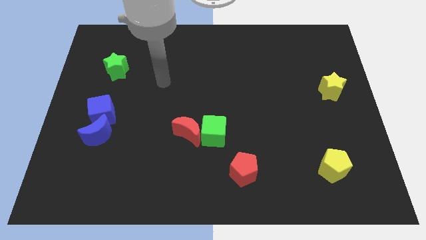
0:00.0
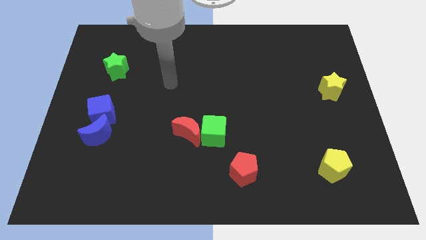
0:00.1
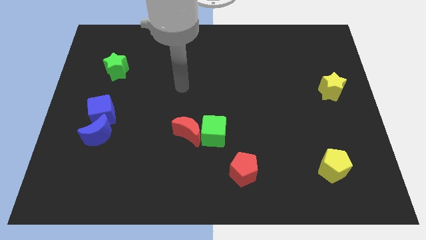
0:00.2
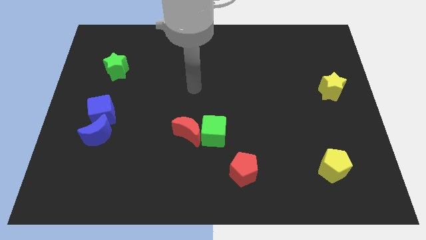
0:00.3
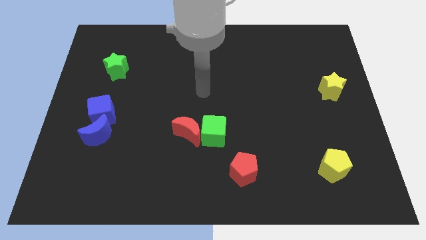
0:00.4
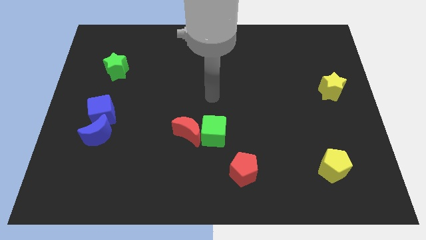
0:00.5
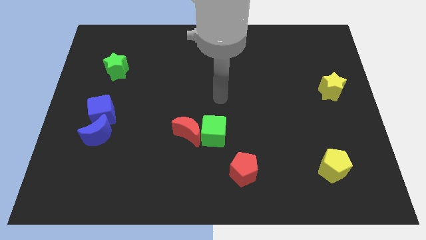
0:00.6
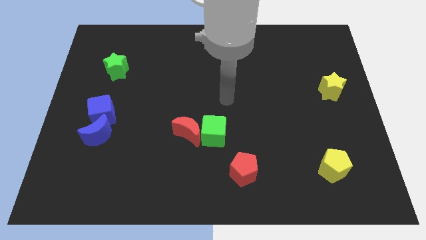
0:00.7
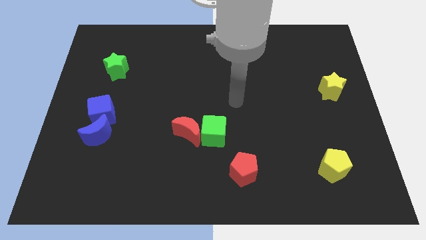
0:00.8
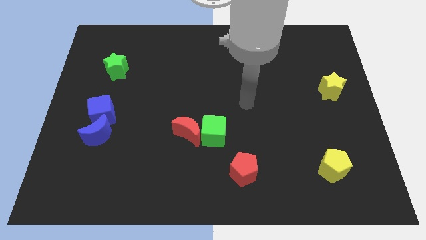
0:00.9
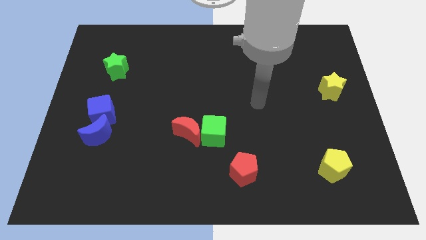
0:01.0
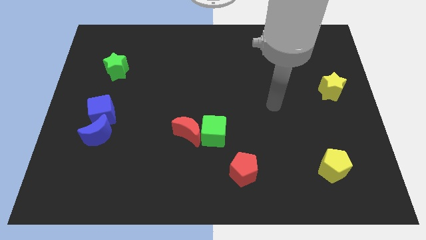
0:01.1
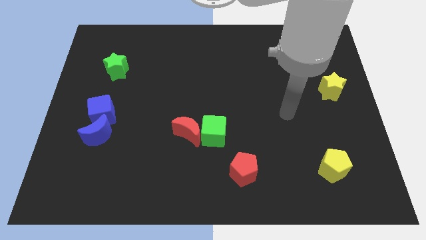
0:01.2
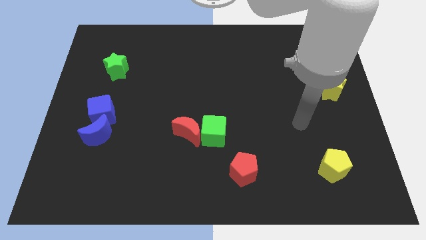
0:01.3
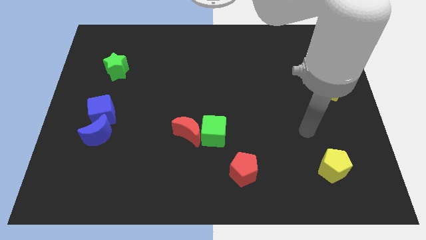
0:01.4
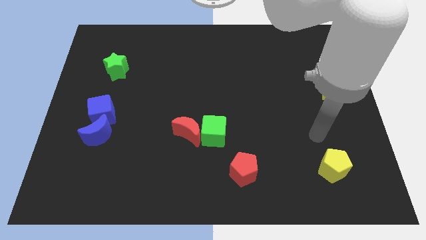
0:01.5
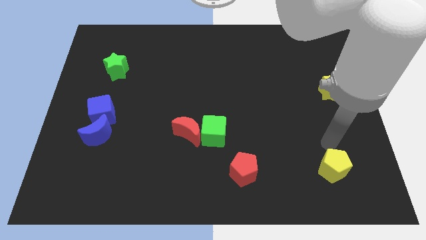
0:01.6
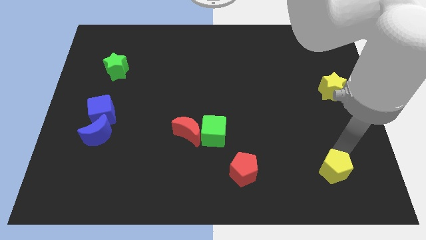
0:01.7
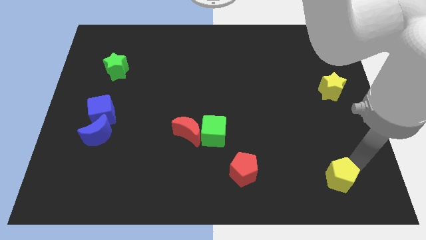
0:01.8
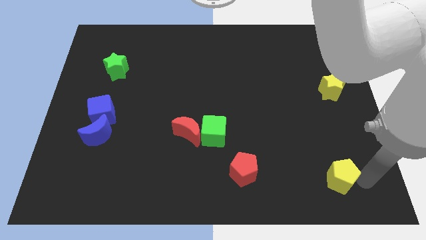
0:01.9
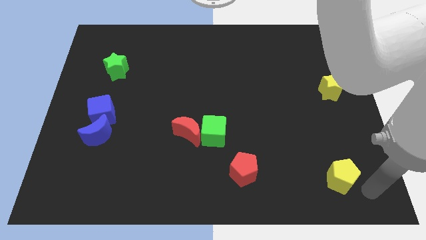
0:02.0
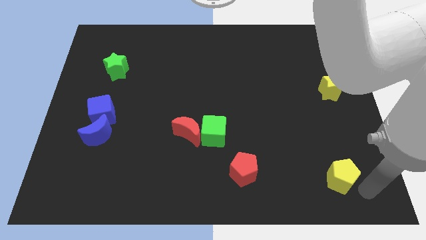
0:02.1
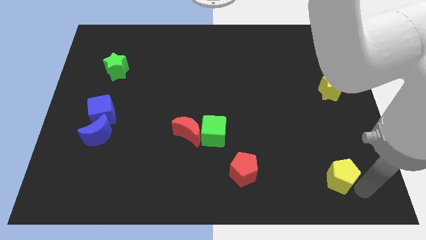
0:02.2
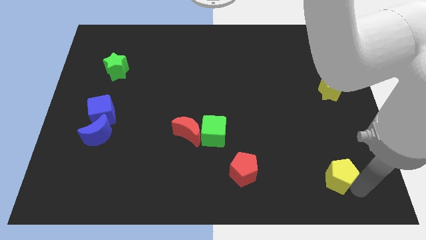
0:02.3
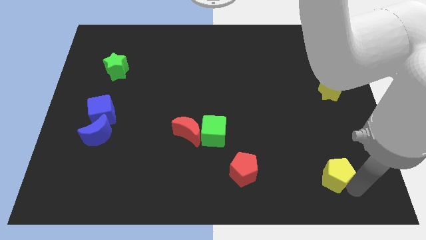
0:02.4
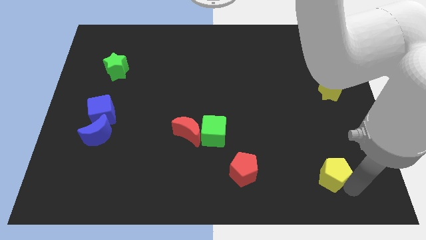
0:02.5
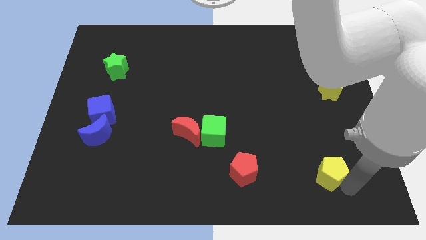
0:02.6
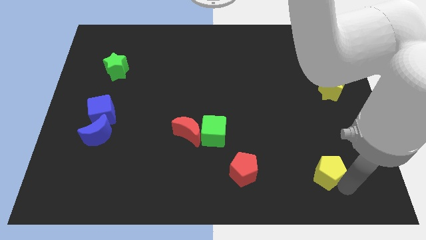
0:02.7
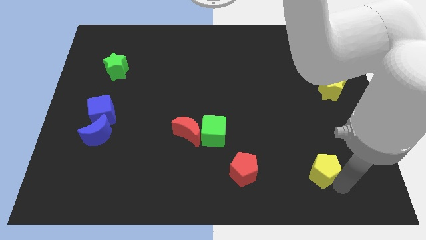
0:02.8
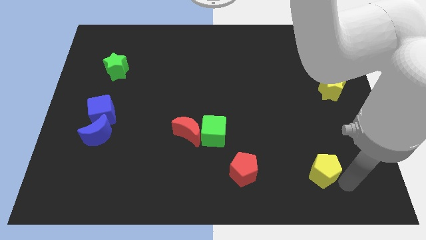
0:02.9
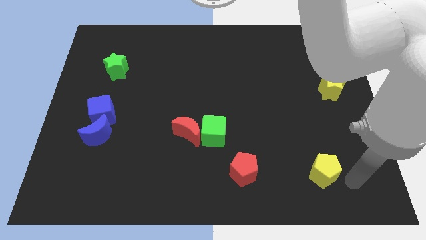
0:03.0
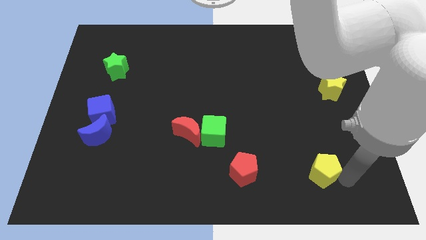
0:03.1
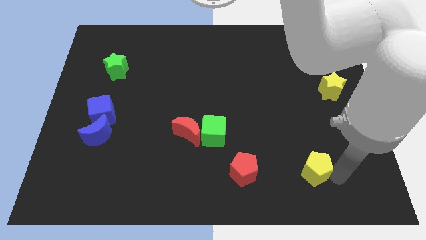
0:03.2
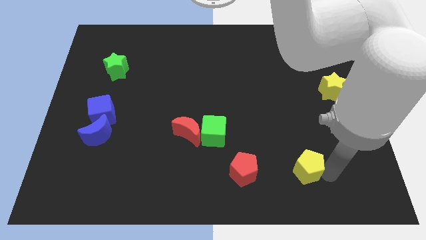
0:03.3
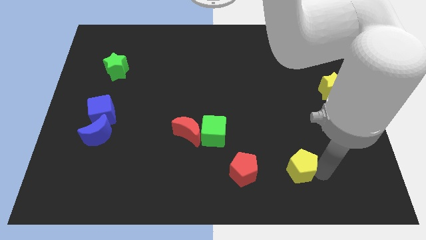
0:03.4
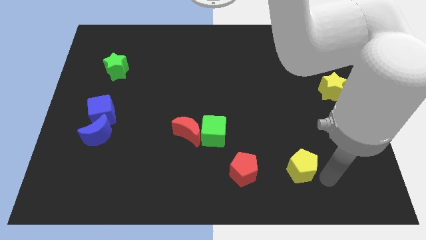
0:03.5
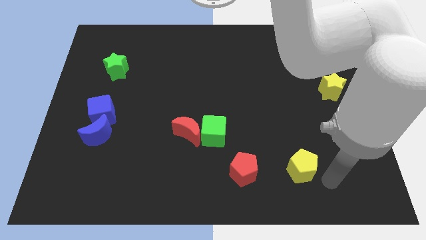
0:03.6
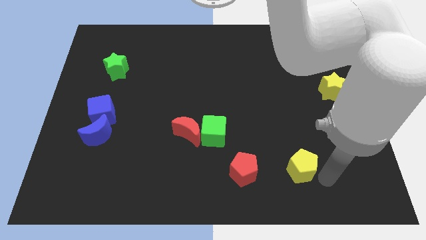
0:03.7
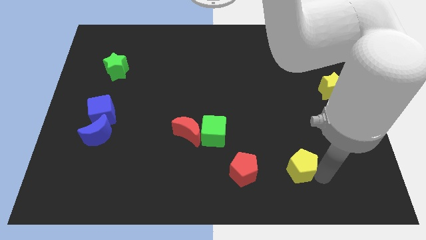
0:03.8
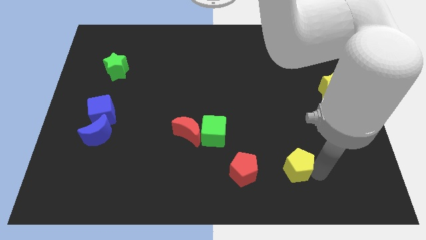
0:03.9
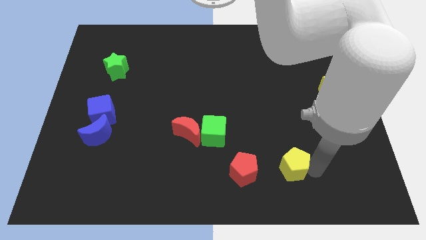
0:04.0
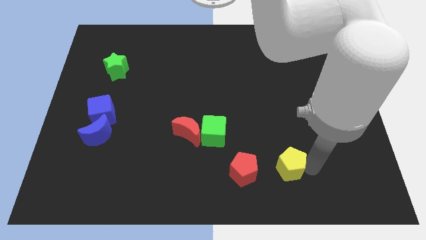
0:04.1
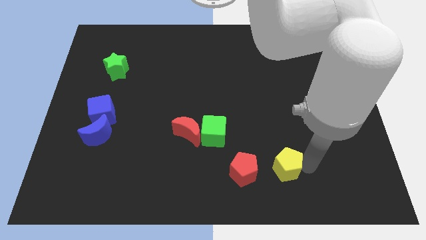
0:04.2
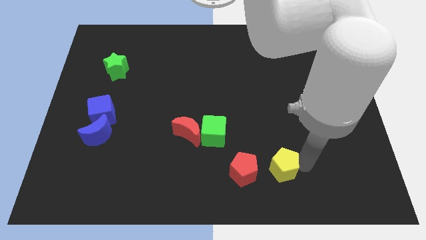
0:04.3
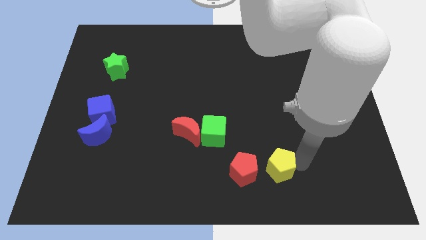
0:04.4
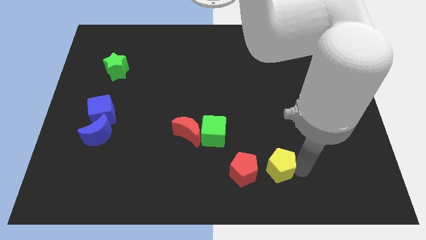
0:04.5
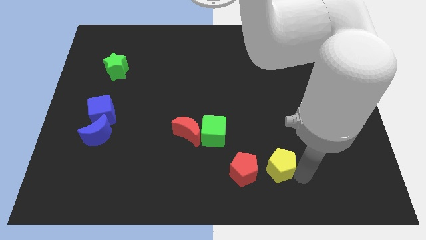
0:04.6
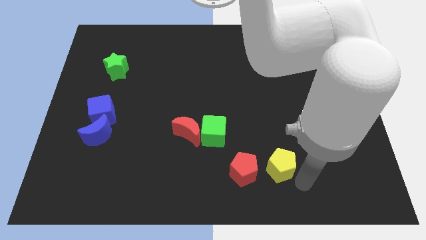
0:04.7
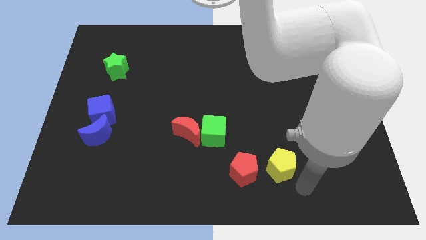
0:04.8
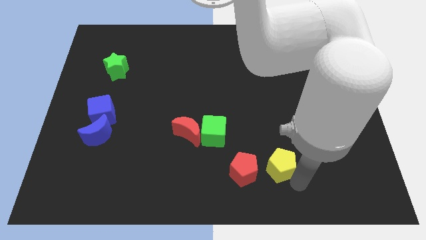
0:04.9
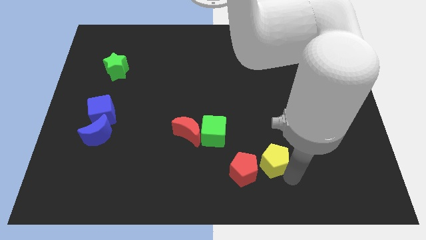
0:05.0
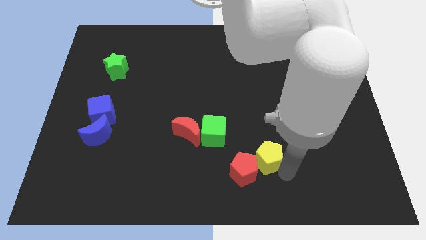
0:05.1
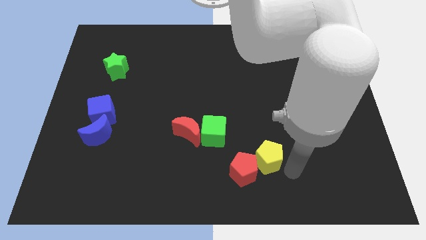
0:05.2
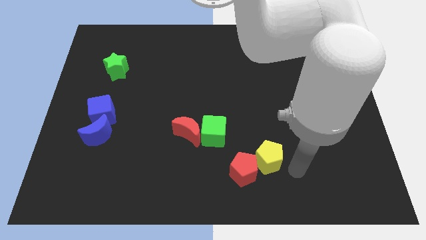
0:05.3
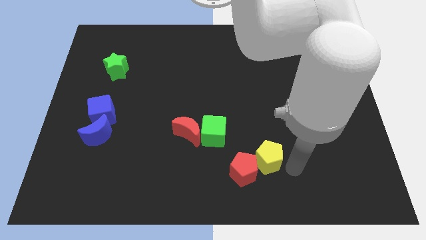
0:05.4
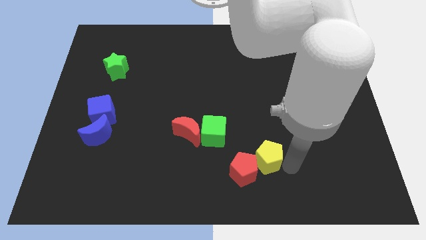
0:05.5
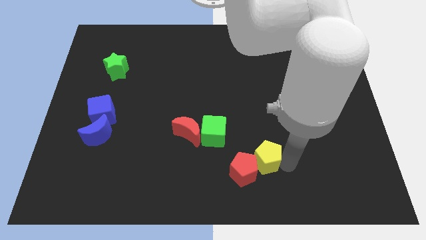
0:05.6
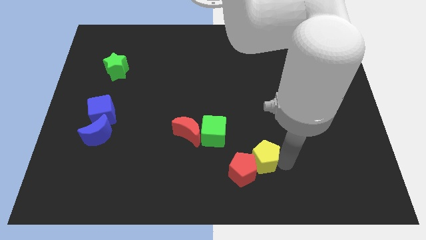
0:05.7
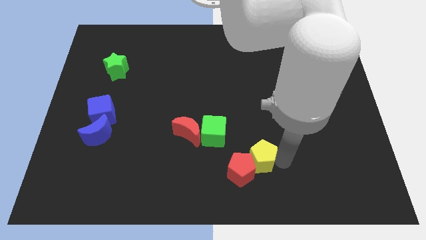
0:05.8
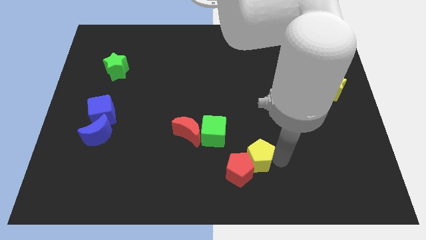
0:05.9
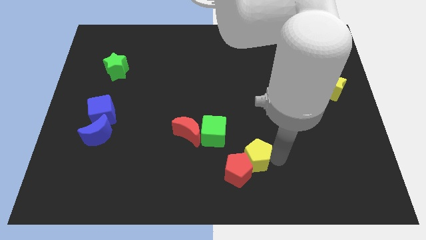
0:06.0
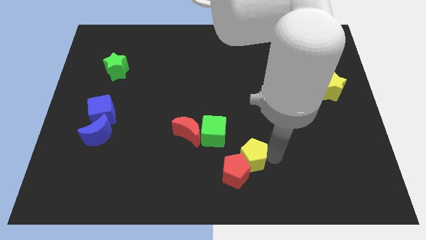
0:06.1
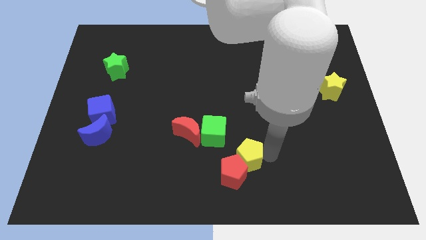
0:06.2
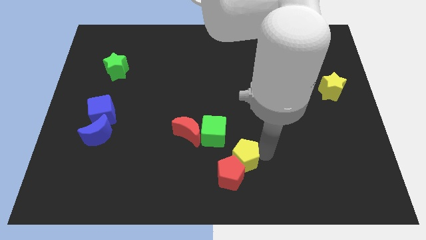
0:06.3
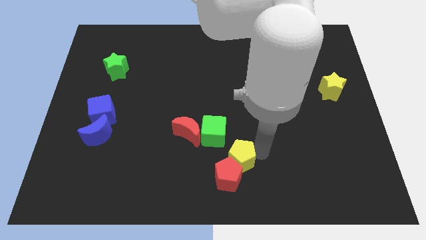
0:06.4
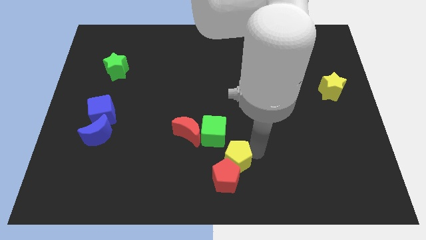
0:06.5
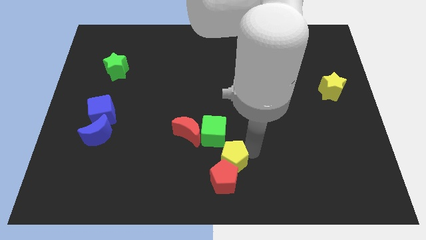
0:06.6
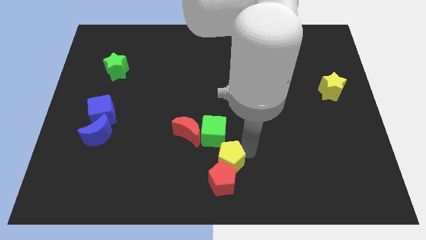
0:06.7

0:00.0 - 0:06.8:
push the yellow pentagon to the top left of the red pentagon

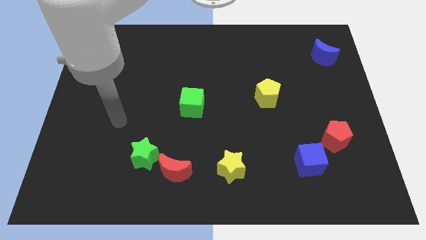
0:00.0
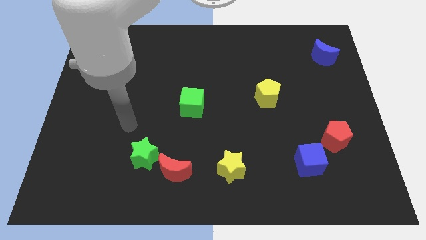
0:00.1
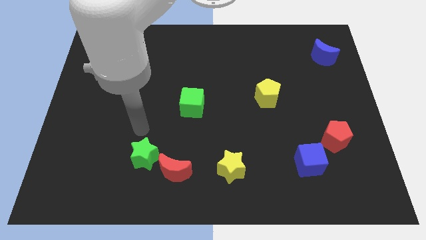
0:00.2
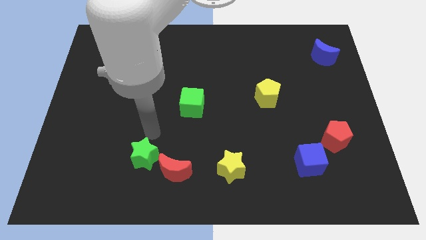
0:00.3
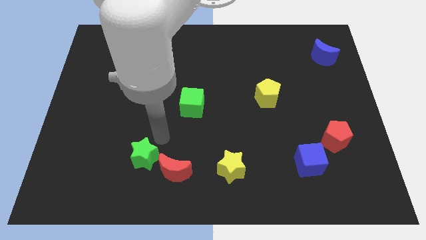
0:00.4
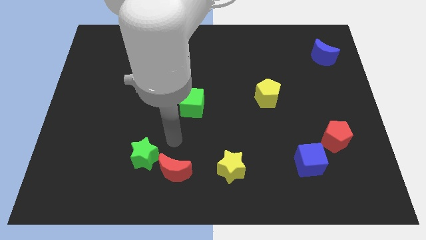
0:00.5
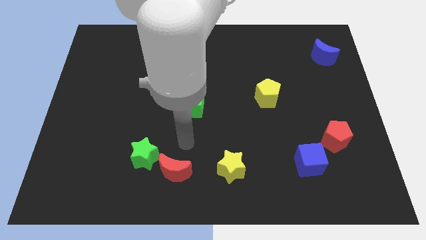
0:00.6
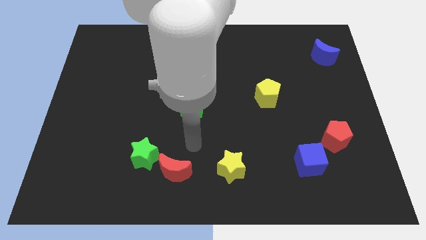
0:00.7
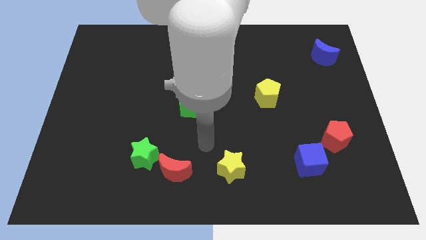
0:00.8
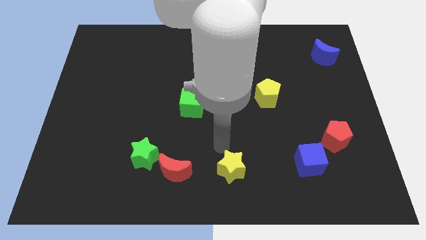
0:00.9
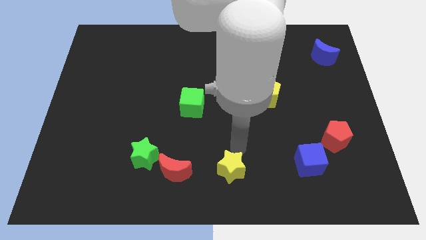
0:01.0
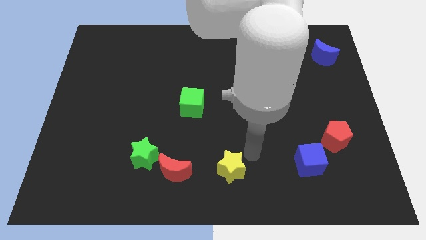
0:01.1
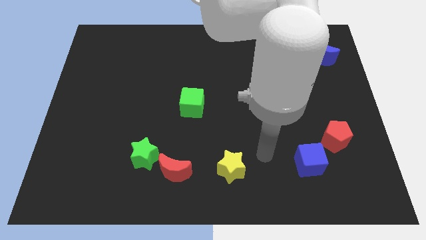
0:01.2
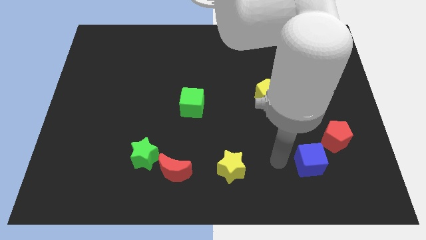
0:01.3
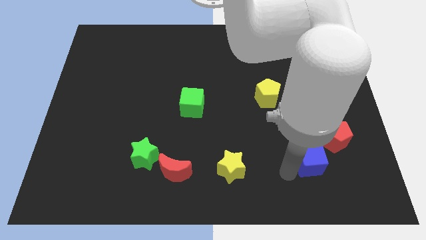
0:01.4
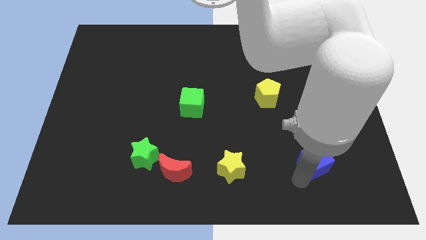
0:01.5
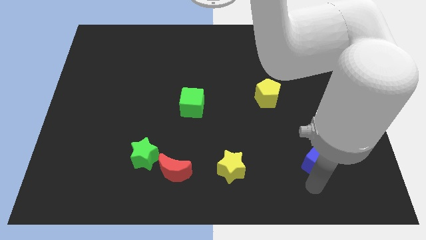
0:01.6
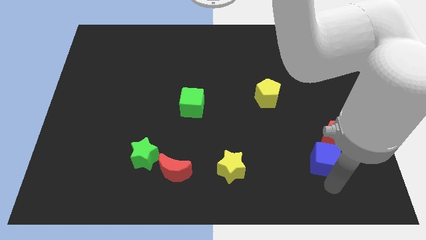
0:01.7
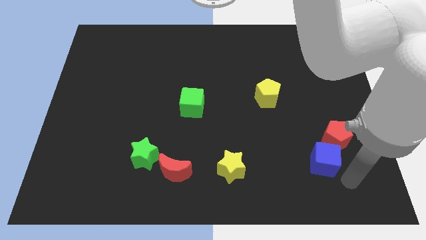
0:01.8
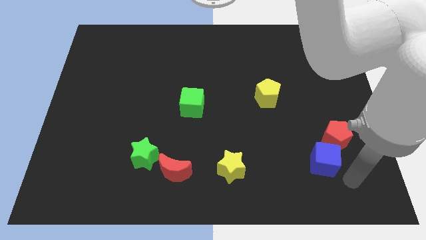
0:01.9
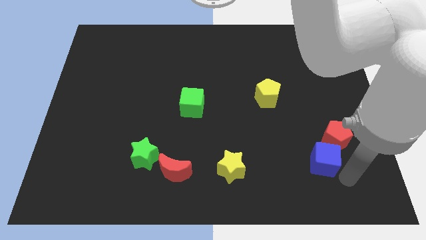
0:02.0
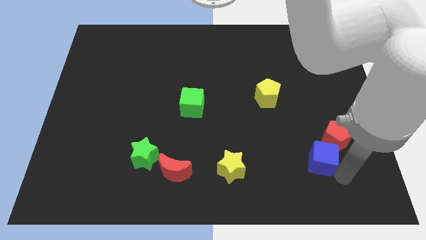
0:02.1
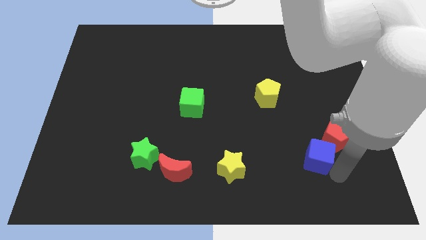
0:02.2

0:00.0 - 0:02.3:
put the blue cube to the left of the red pentagon
